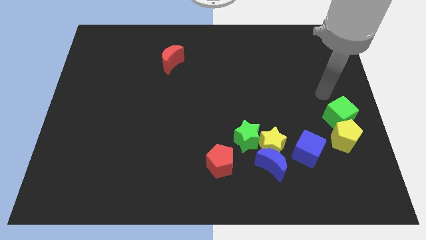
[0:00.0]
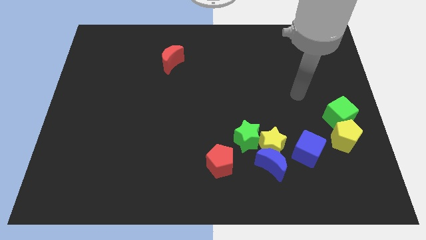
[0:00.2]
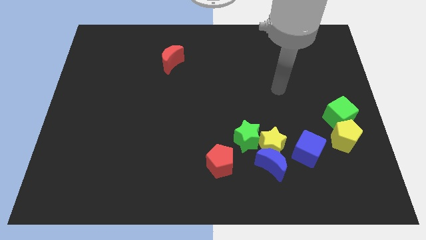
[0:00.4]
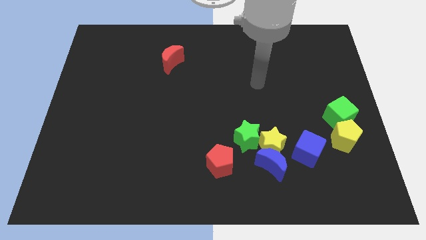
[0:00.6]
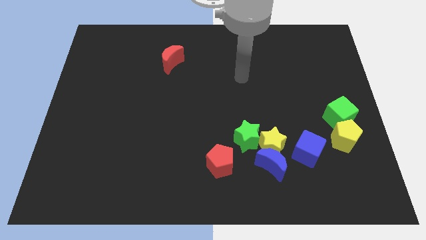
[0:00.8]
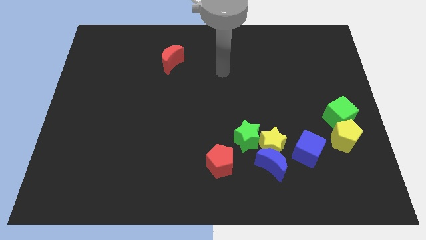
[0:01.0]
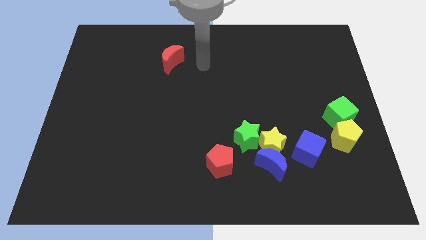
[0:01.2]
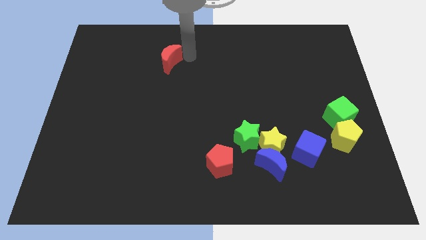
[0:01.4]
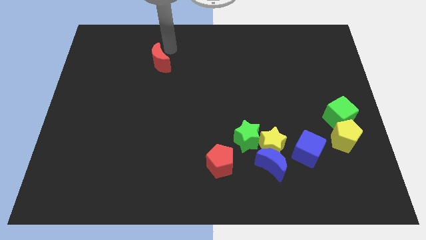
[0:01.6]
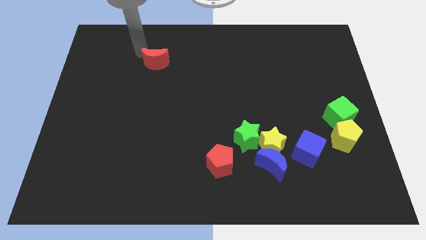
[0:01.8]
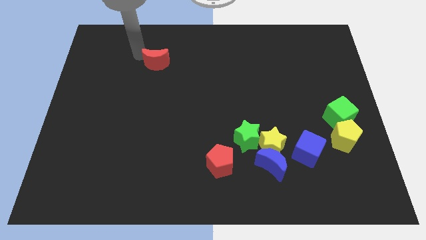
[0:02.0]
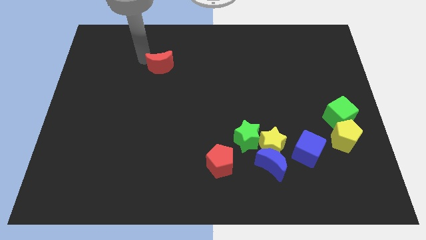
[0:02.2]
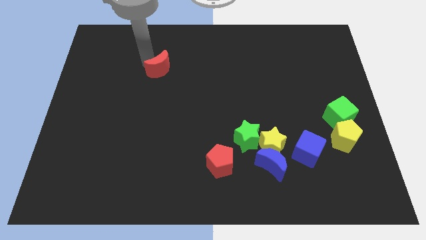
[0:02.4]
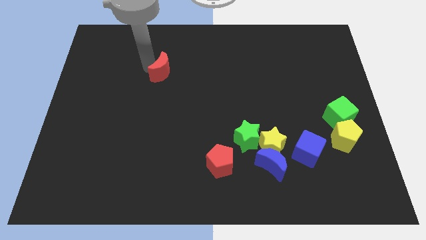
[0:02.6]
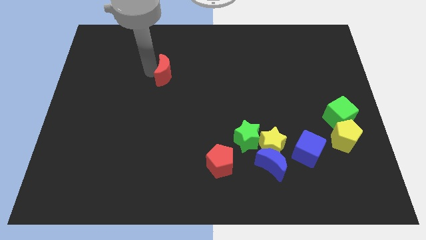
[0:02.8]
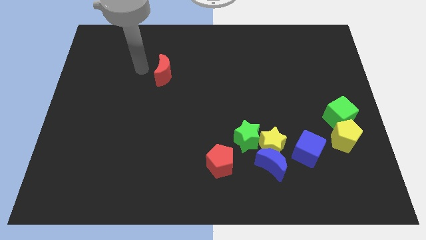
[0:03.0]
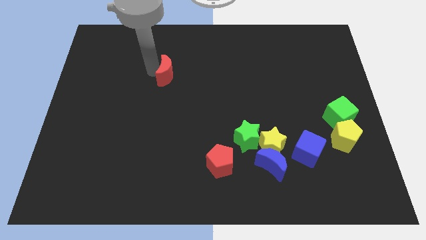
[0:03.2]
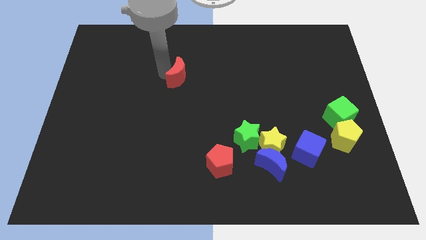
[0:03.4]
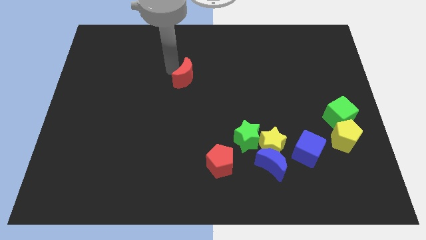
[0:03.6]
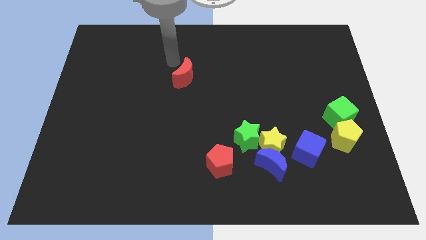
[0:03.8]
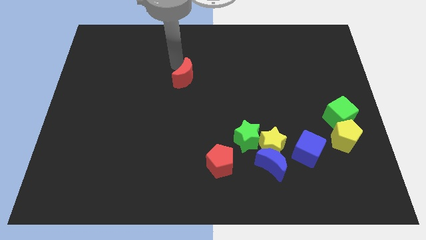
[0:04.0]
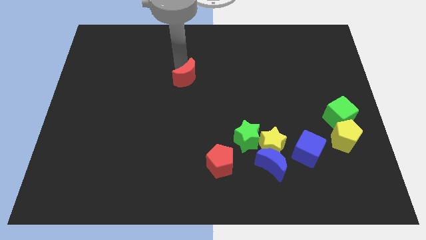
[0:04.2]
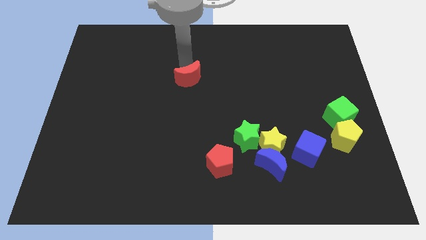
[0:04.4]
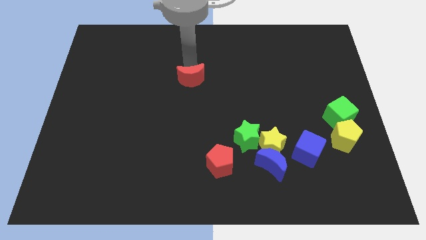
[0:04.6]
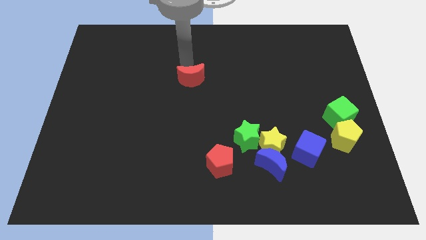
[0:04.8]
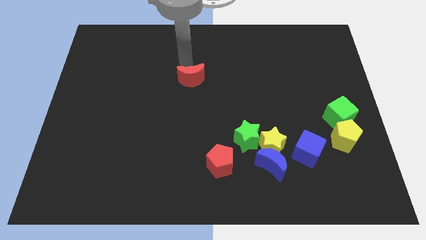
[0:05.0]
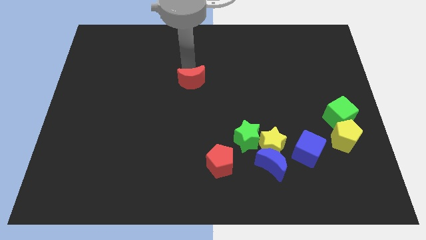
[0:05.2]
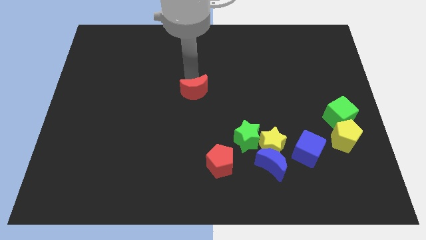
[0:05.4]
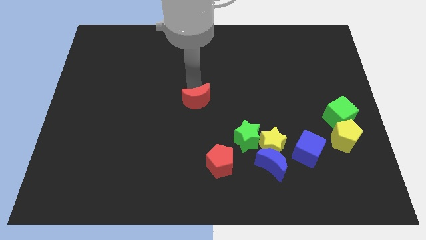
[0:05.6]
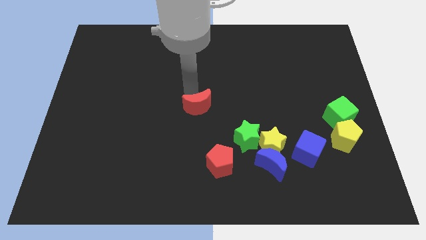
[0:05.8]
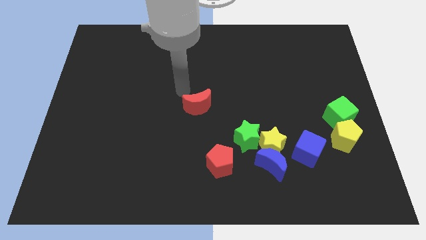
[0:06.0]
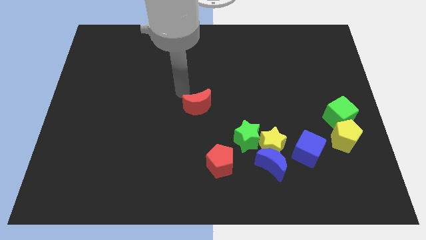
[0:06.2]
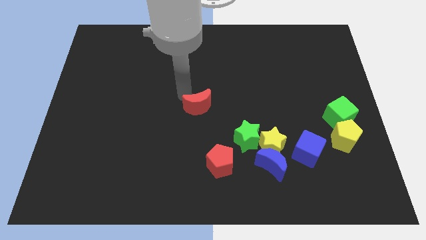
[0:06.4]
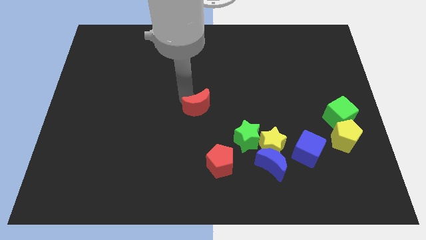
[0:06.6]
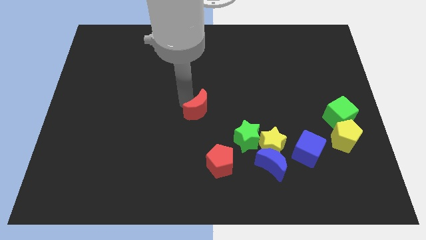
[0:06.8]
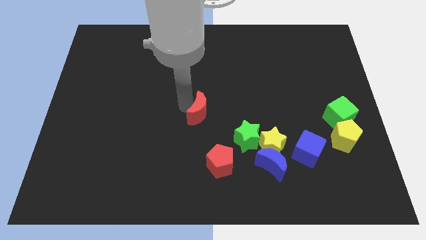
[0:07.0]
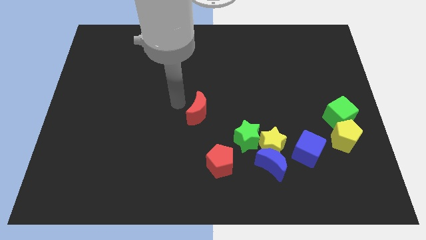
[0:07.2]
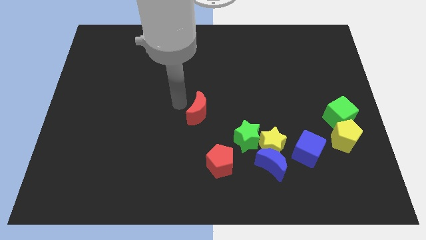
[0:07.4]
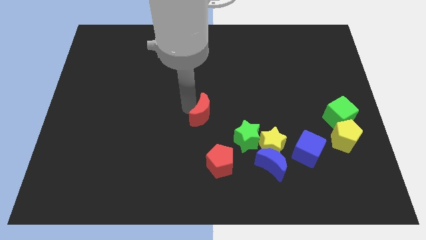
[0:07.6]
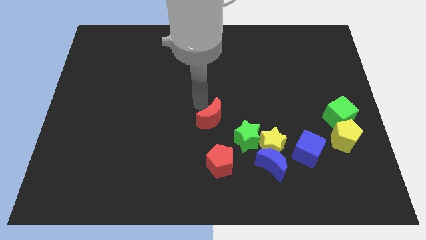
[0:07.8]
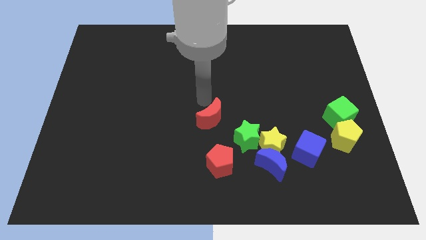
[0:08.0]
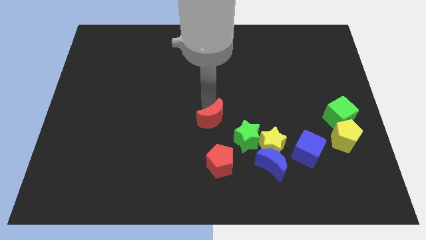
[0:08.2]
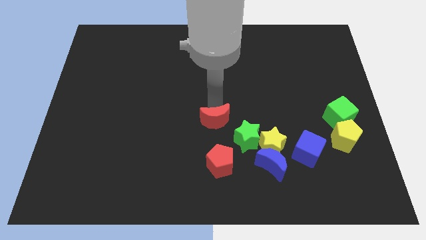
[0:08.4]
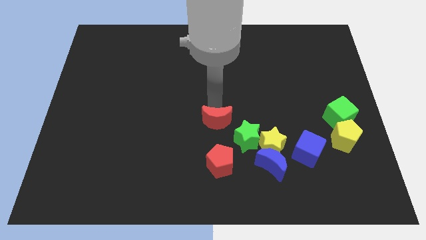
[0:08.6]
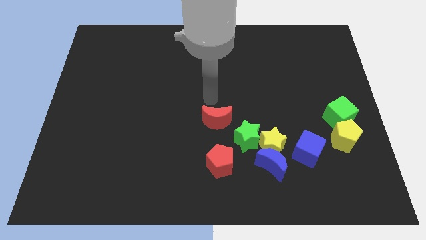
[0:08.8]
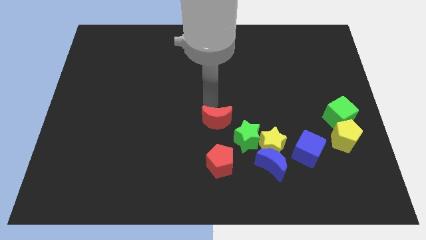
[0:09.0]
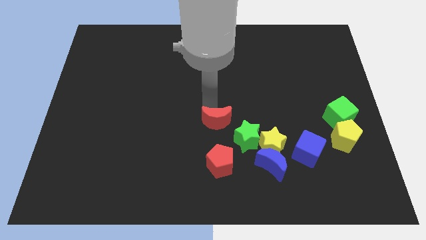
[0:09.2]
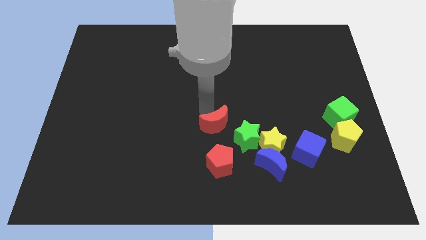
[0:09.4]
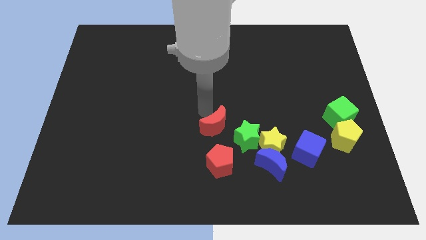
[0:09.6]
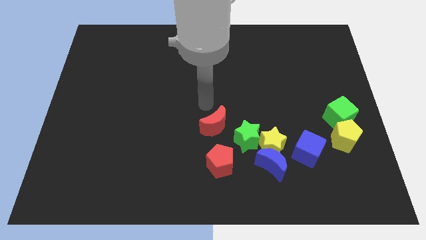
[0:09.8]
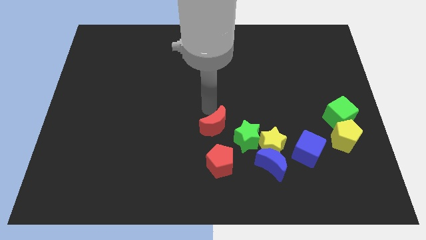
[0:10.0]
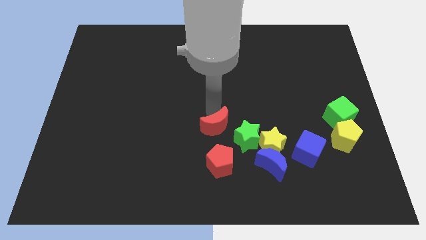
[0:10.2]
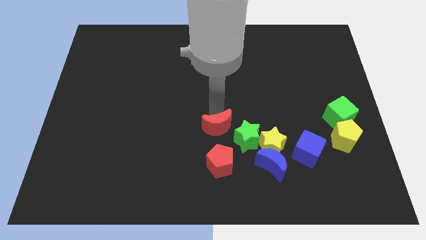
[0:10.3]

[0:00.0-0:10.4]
move the red moon to the left of the yellow star

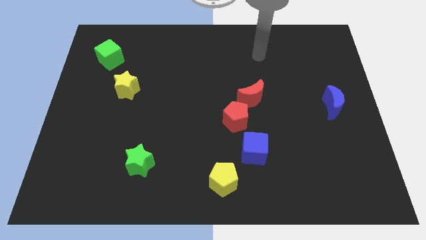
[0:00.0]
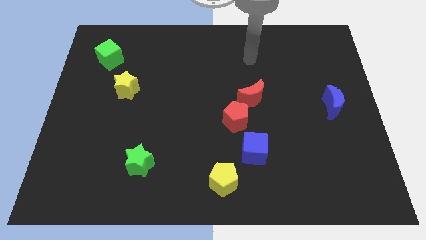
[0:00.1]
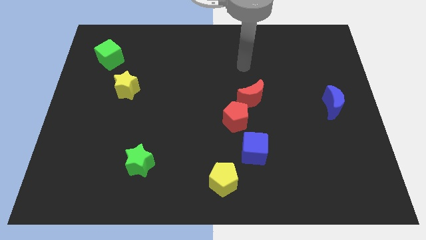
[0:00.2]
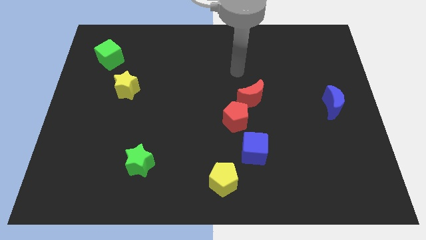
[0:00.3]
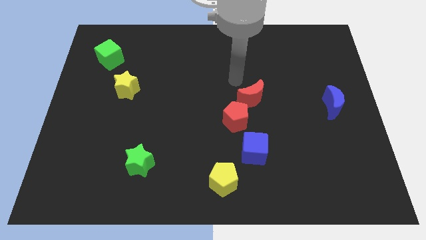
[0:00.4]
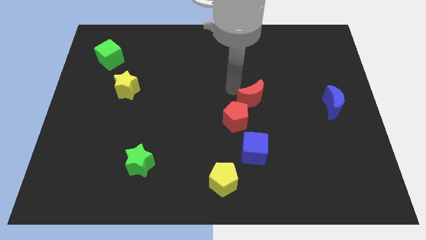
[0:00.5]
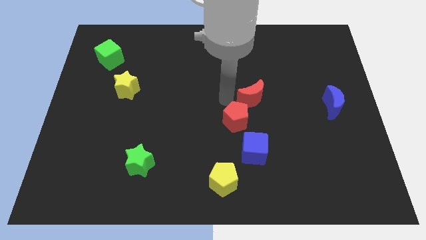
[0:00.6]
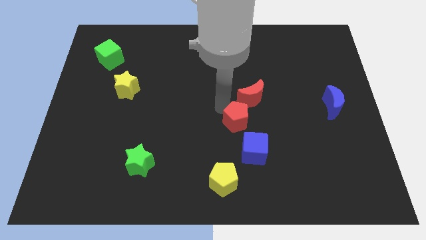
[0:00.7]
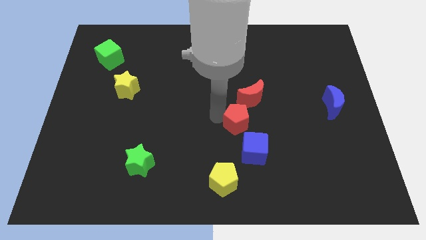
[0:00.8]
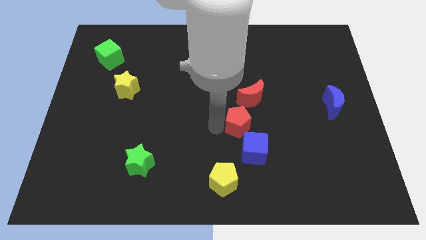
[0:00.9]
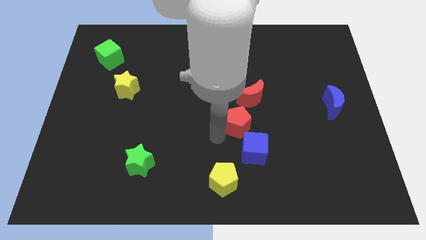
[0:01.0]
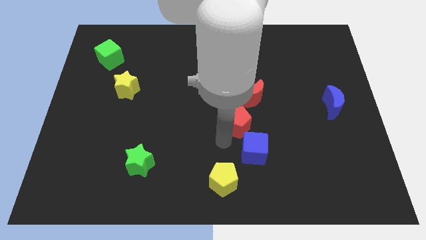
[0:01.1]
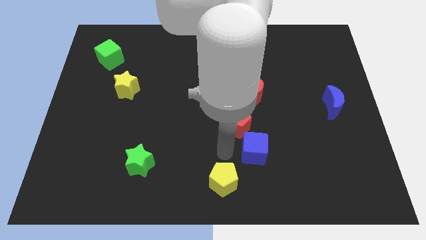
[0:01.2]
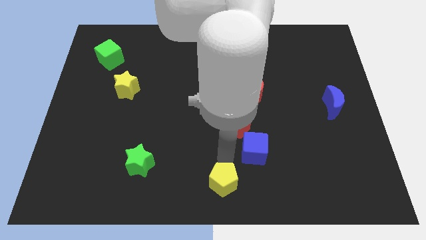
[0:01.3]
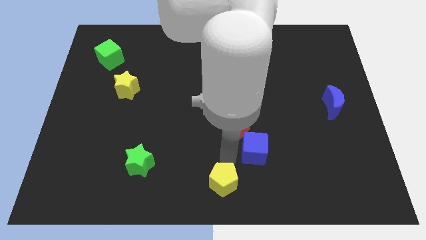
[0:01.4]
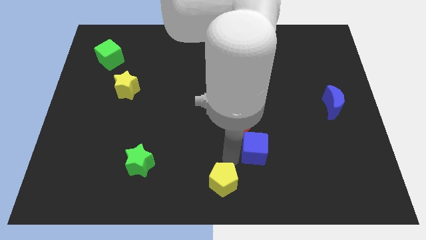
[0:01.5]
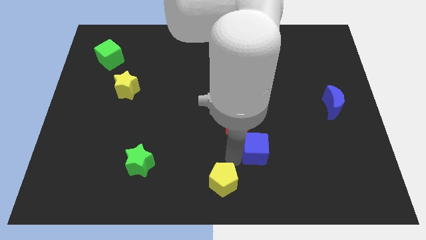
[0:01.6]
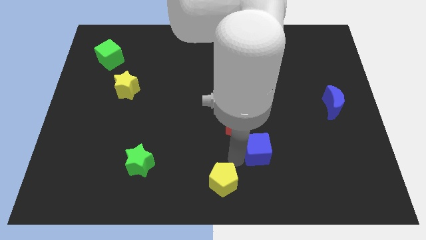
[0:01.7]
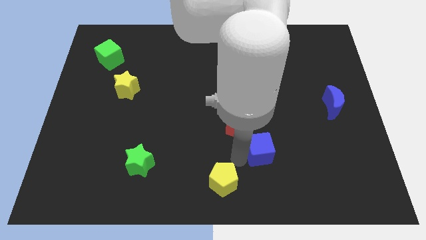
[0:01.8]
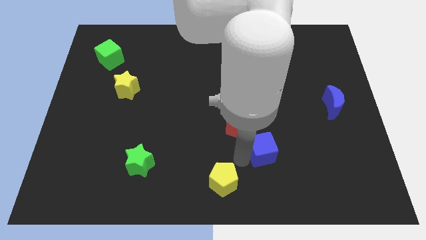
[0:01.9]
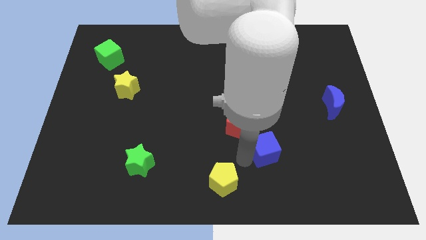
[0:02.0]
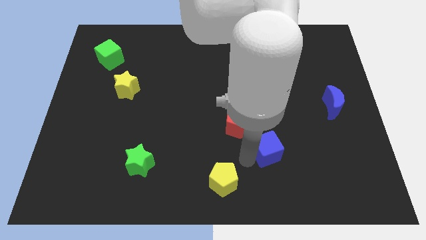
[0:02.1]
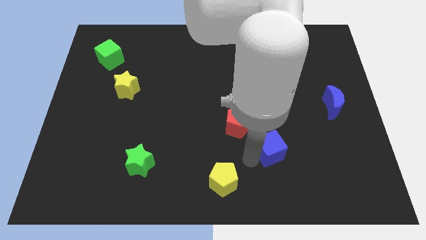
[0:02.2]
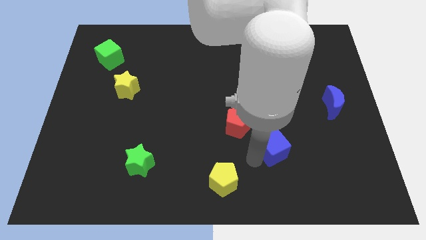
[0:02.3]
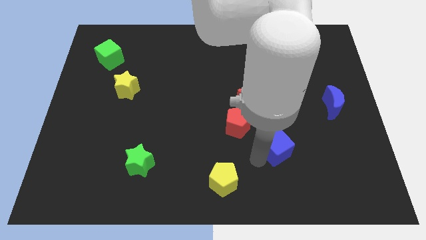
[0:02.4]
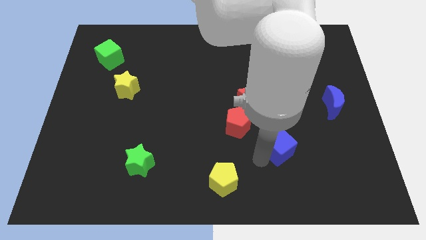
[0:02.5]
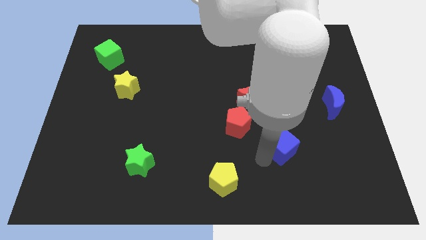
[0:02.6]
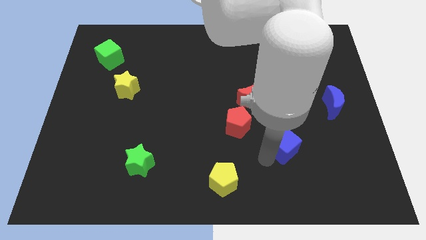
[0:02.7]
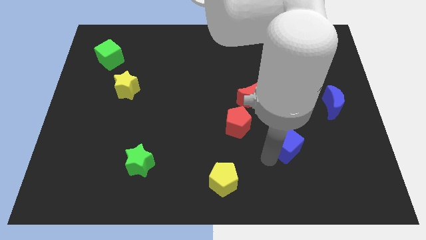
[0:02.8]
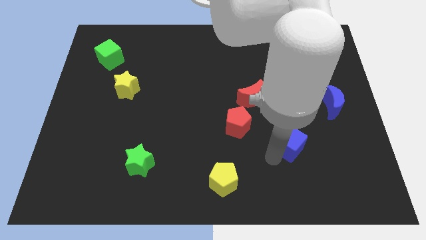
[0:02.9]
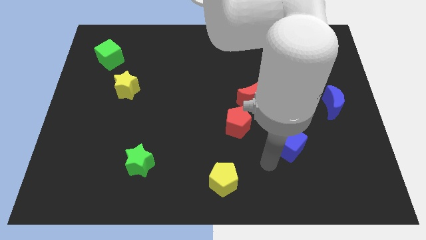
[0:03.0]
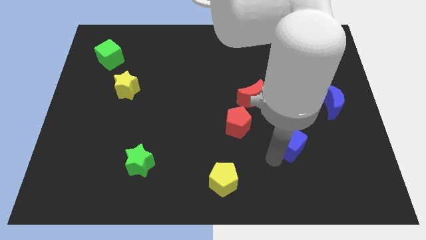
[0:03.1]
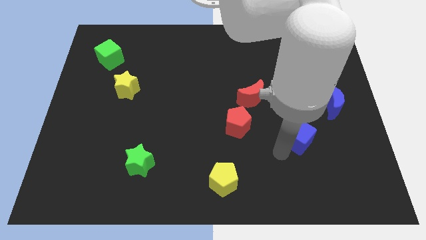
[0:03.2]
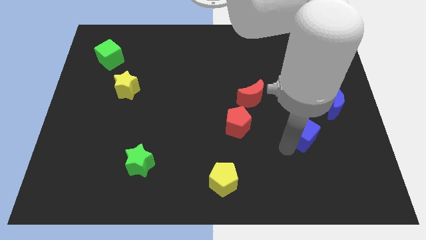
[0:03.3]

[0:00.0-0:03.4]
slide the blue cube diagonally down and to the left of the blue moon
